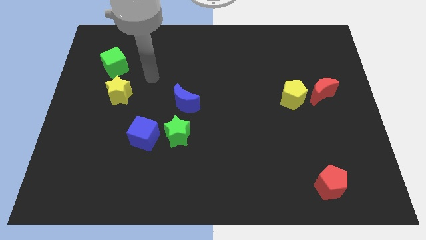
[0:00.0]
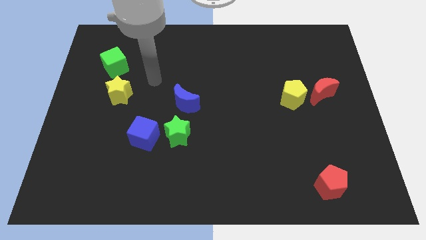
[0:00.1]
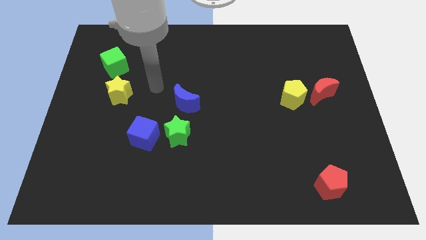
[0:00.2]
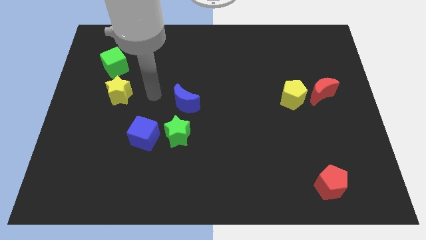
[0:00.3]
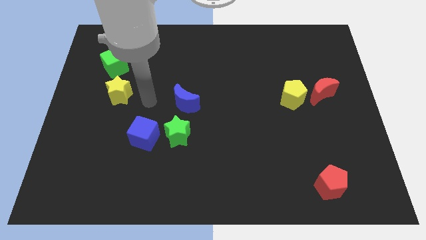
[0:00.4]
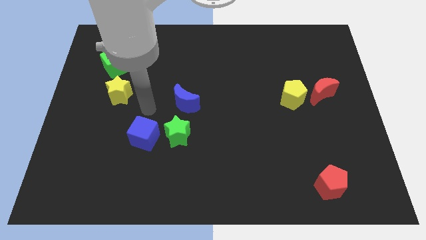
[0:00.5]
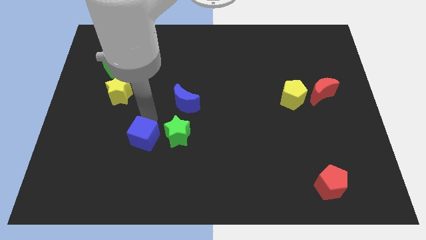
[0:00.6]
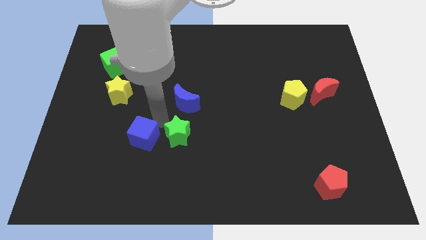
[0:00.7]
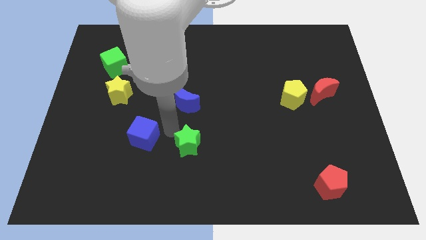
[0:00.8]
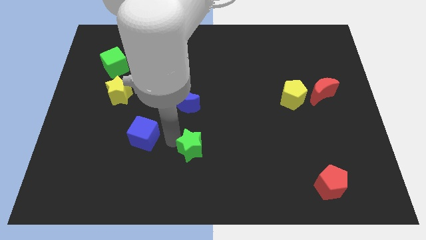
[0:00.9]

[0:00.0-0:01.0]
separate the blue cube from the green star

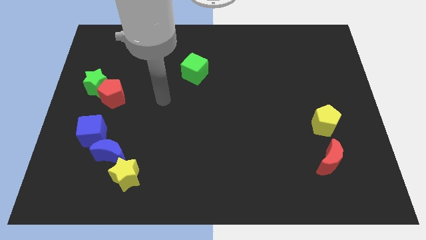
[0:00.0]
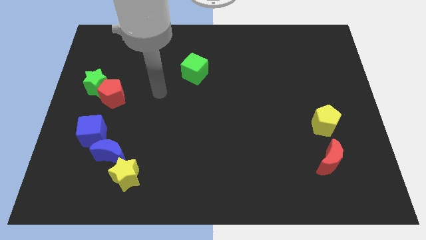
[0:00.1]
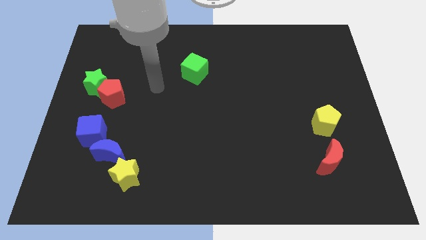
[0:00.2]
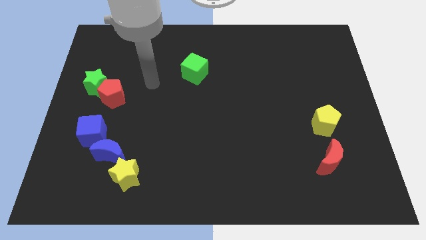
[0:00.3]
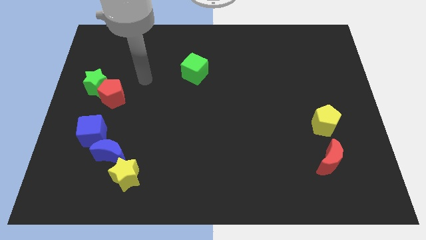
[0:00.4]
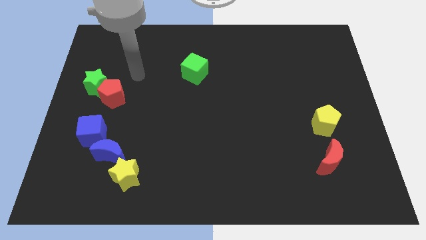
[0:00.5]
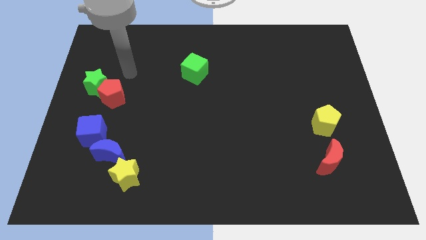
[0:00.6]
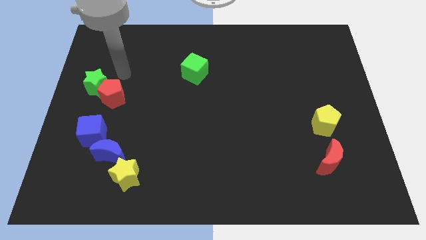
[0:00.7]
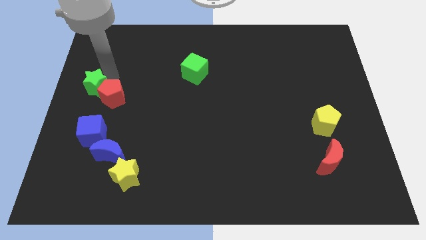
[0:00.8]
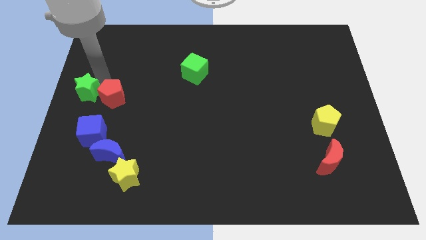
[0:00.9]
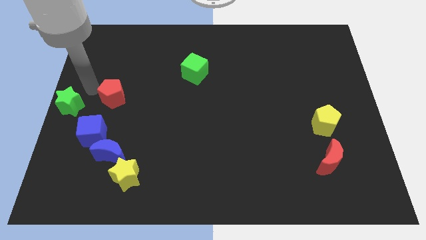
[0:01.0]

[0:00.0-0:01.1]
pull the red pentagon apart from the green star

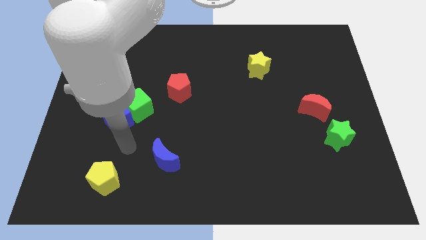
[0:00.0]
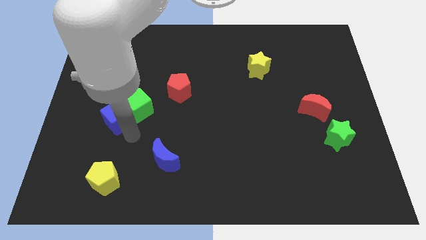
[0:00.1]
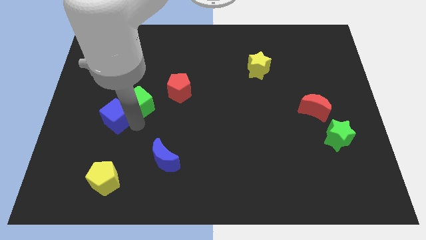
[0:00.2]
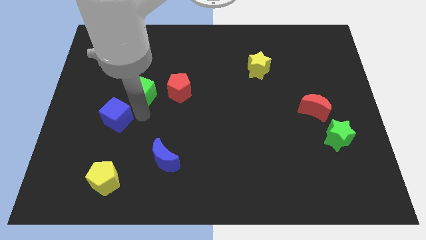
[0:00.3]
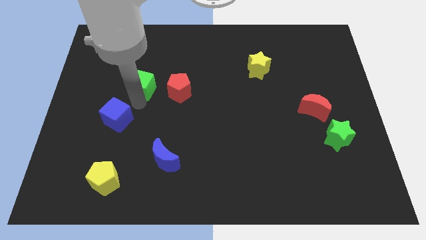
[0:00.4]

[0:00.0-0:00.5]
move the blue cube away from the green cube

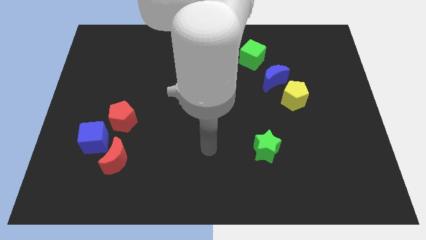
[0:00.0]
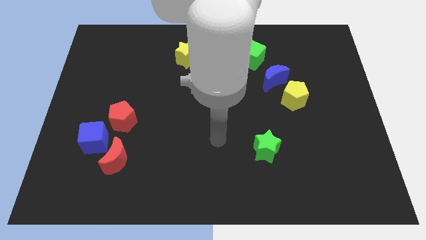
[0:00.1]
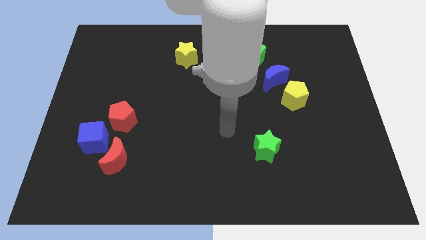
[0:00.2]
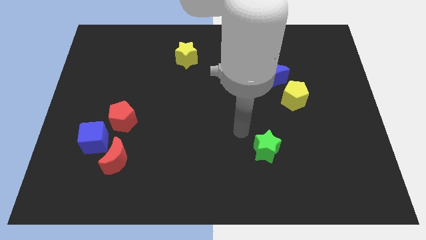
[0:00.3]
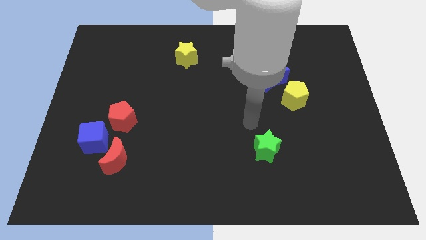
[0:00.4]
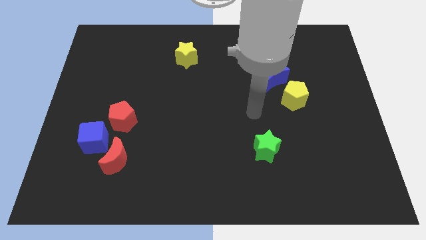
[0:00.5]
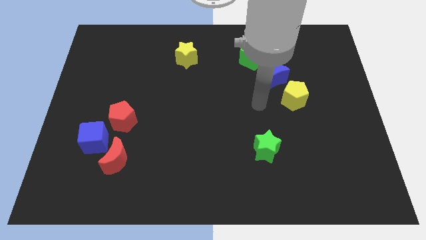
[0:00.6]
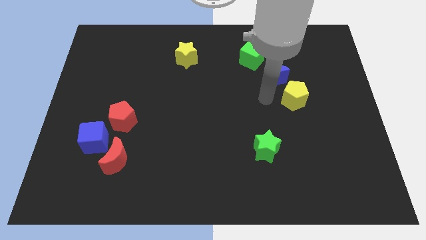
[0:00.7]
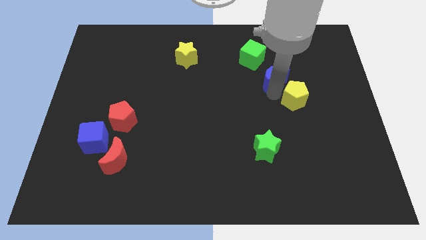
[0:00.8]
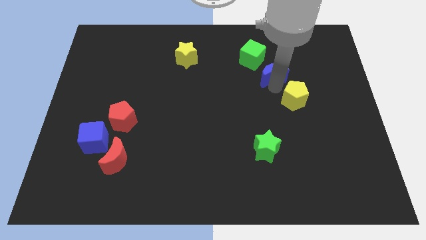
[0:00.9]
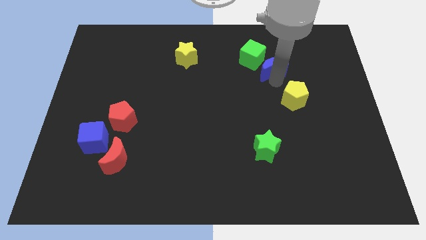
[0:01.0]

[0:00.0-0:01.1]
move the yellow pentagon away from the blue moon

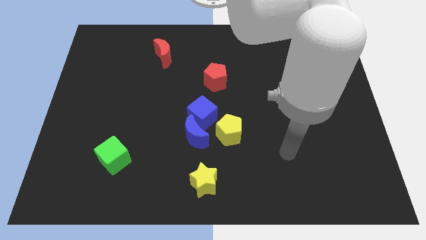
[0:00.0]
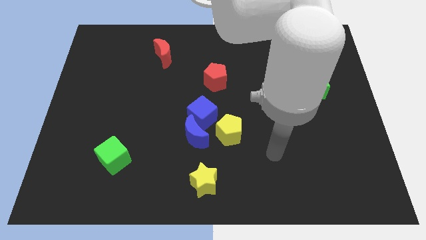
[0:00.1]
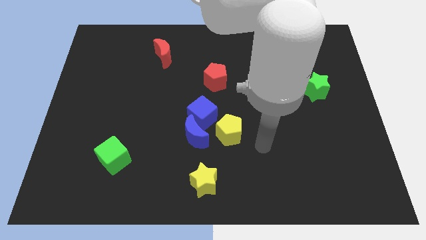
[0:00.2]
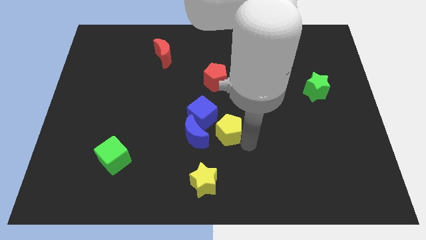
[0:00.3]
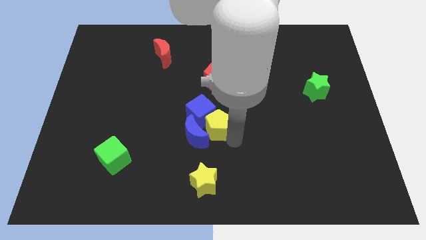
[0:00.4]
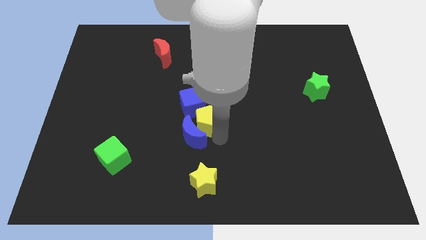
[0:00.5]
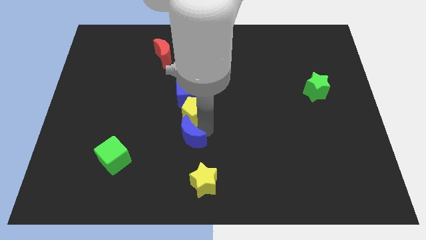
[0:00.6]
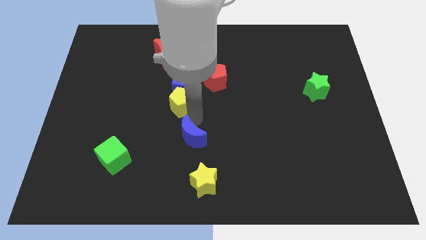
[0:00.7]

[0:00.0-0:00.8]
move the blue cube away from the blue moon and yellow pentagon

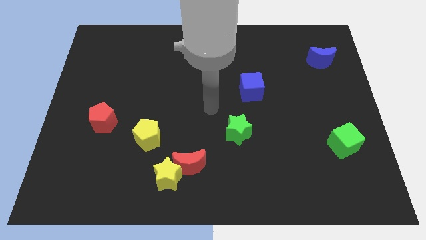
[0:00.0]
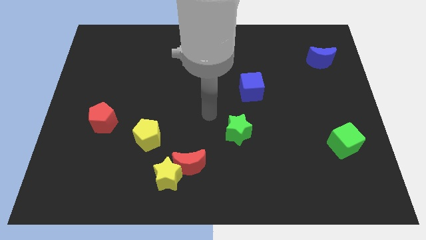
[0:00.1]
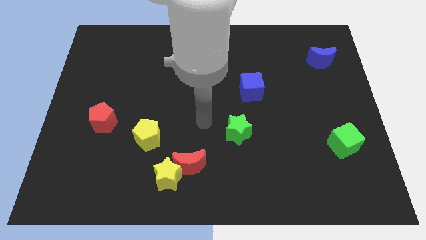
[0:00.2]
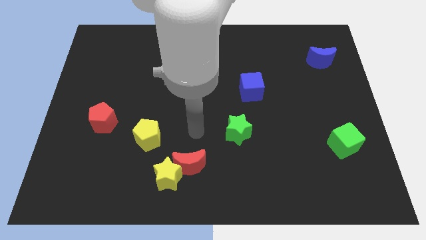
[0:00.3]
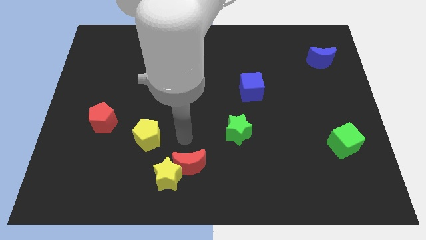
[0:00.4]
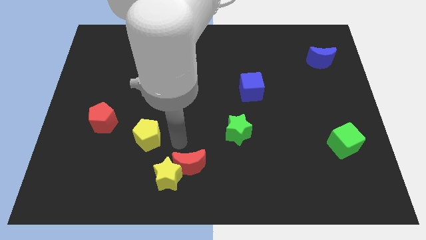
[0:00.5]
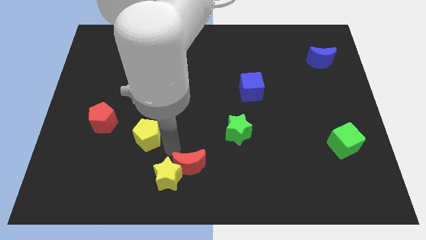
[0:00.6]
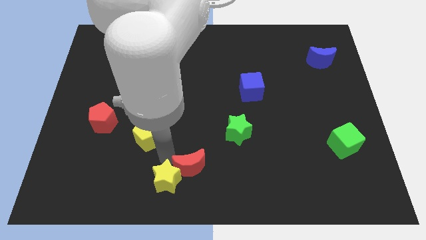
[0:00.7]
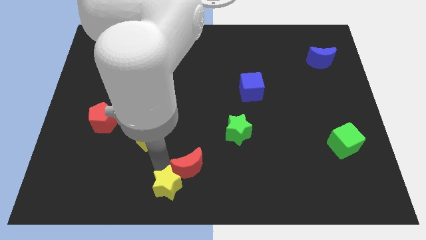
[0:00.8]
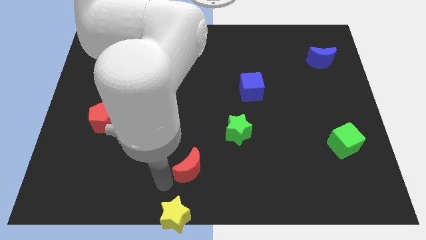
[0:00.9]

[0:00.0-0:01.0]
separate the red moon from the yellow star

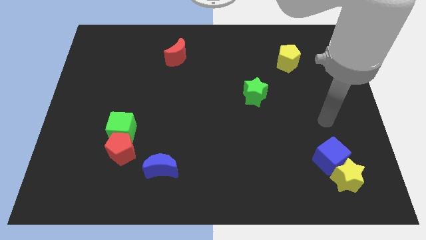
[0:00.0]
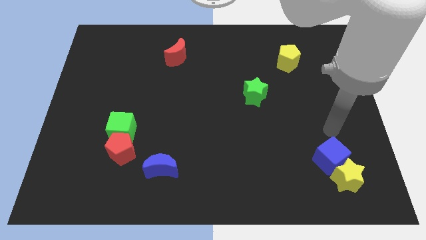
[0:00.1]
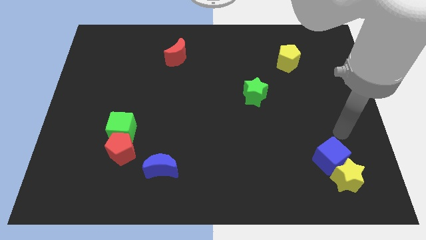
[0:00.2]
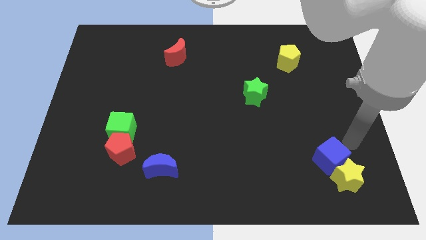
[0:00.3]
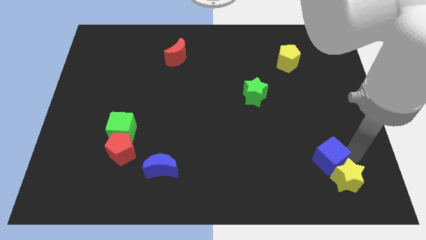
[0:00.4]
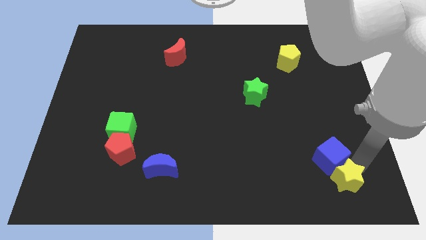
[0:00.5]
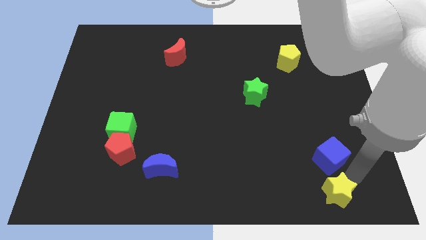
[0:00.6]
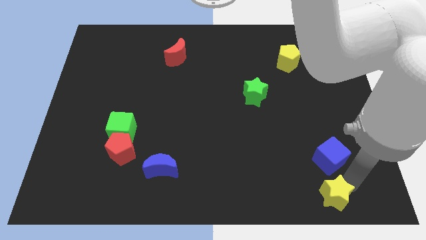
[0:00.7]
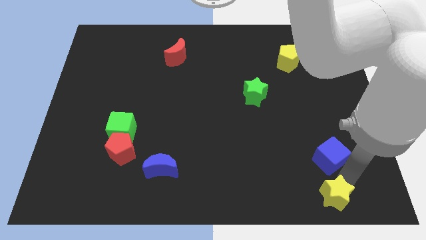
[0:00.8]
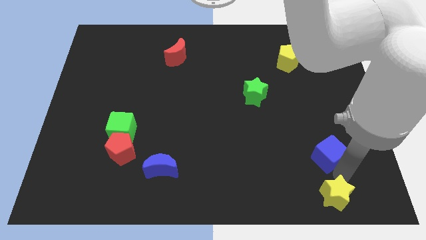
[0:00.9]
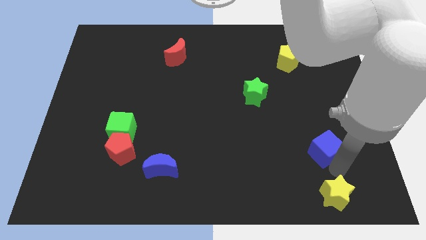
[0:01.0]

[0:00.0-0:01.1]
separate the blue cube from the yellow star

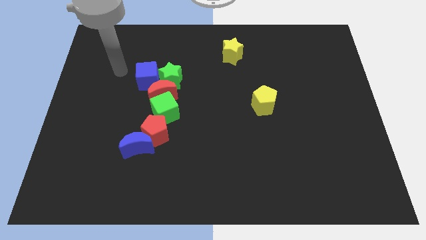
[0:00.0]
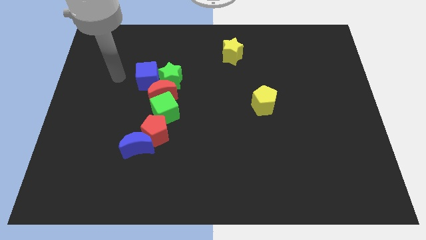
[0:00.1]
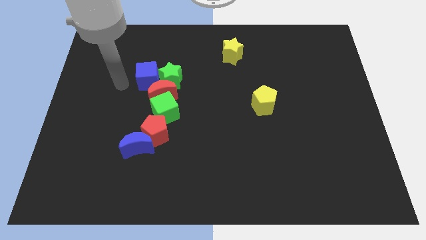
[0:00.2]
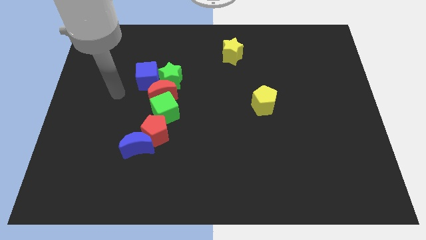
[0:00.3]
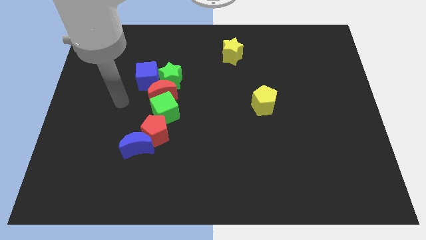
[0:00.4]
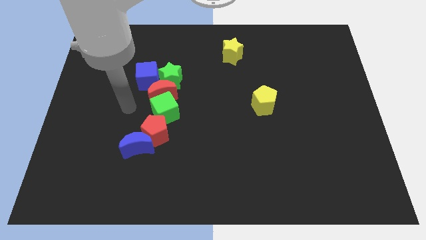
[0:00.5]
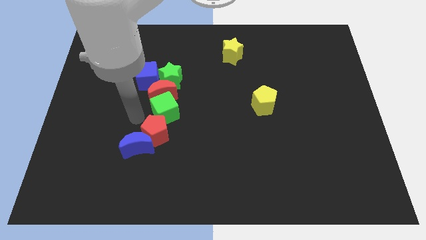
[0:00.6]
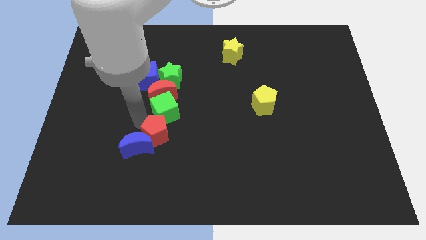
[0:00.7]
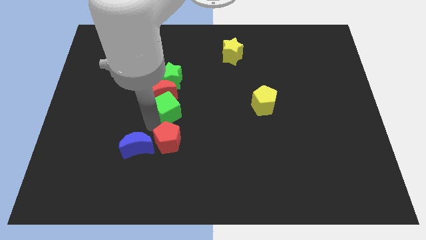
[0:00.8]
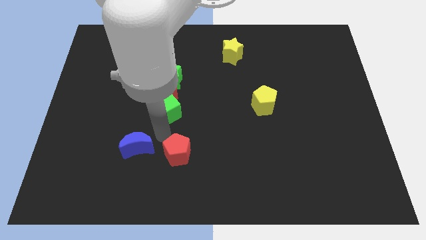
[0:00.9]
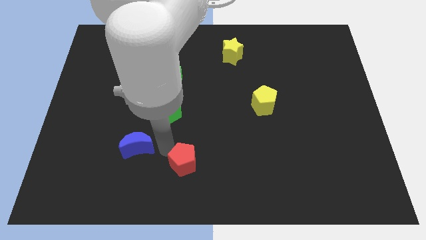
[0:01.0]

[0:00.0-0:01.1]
separate the blue moon from the red pentagon

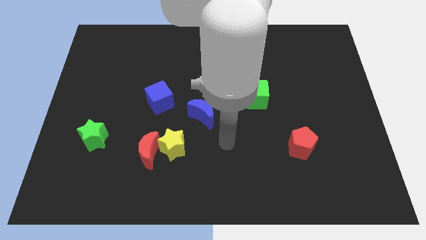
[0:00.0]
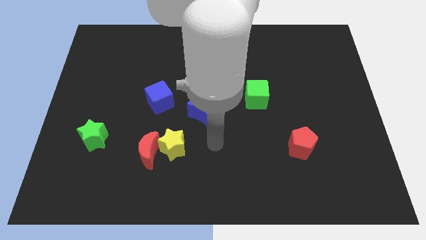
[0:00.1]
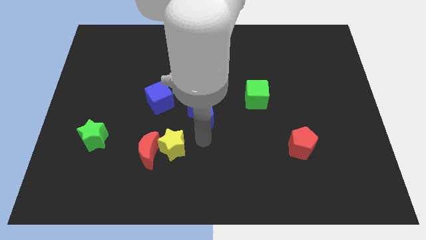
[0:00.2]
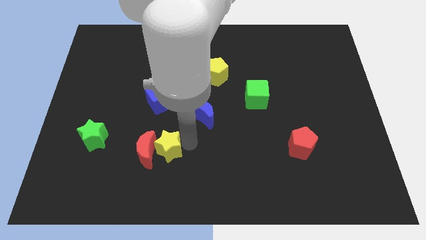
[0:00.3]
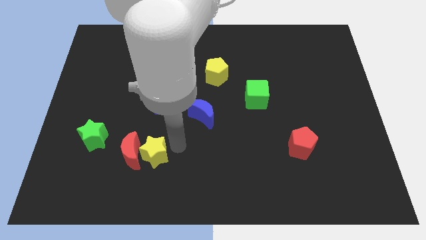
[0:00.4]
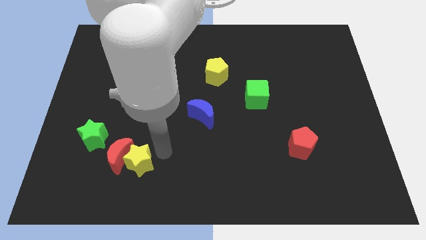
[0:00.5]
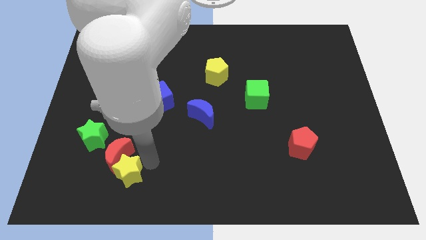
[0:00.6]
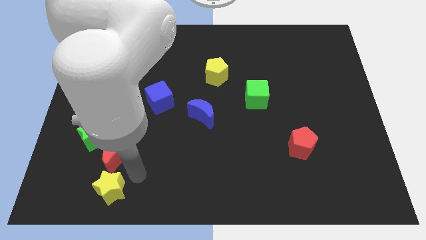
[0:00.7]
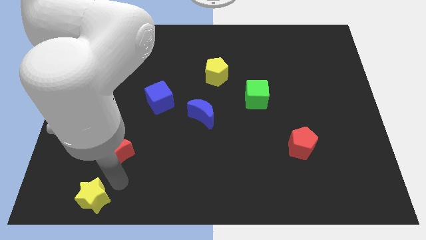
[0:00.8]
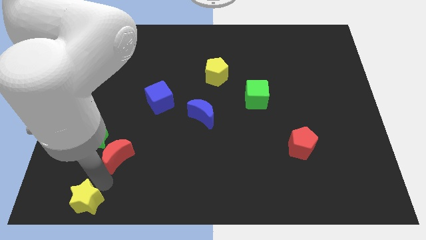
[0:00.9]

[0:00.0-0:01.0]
pull the red moon apart from the yellow star

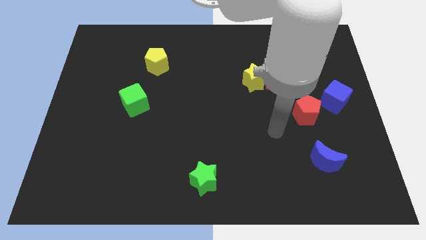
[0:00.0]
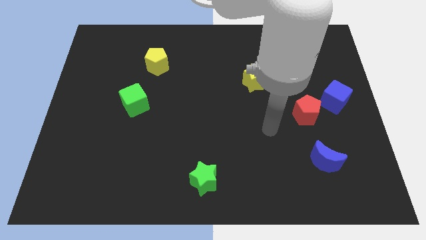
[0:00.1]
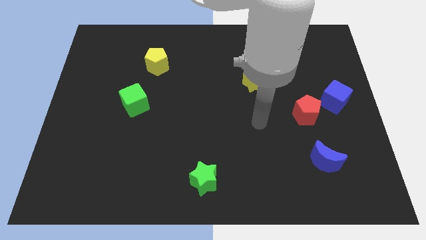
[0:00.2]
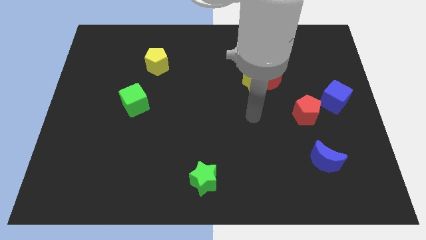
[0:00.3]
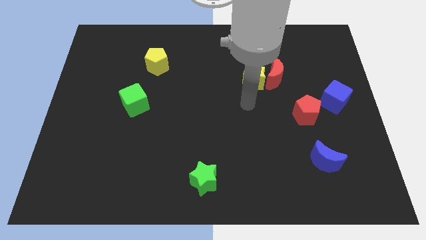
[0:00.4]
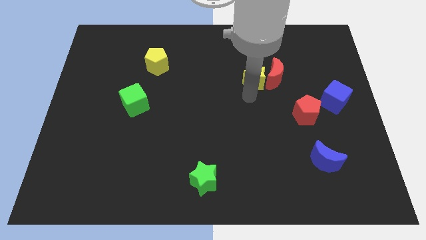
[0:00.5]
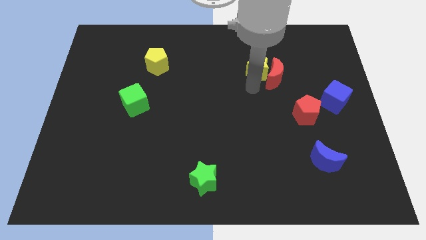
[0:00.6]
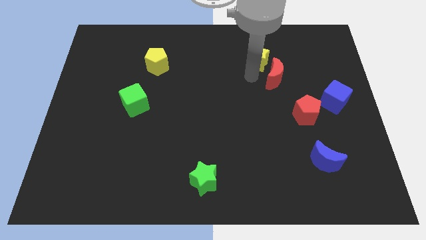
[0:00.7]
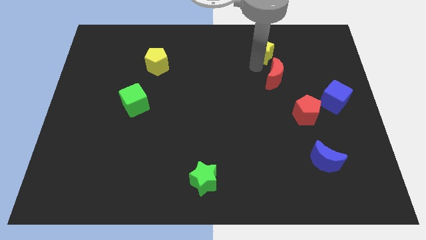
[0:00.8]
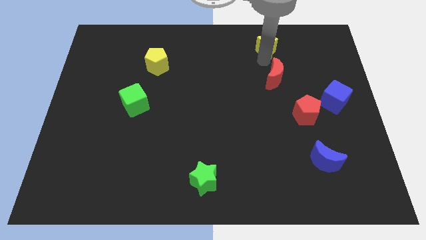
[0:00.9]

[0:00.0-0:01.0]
move the red moon away from the yellow star
